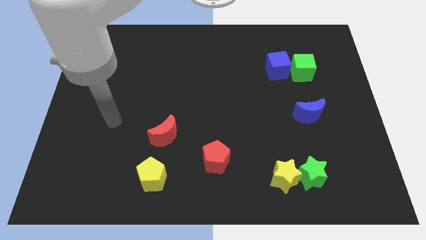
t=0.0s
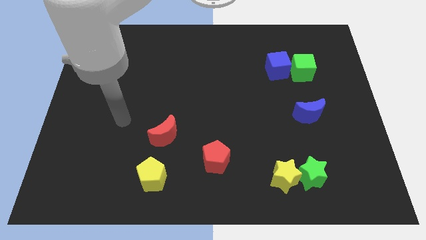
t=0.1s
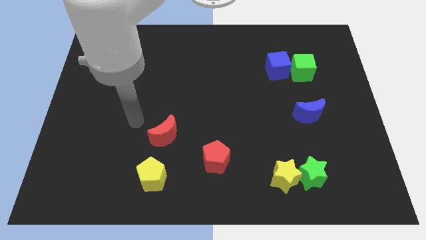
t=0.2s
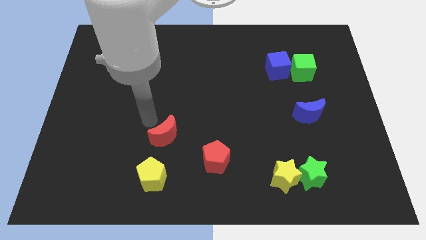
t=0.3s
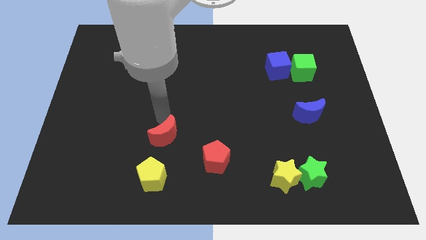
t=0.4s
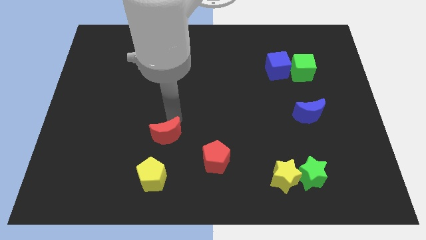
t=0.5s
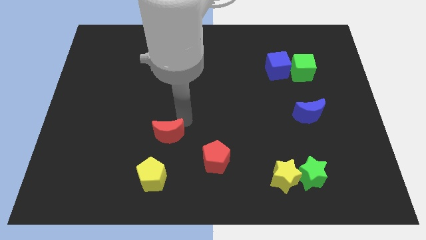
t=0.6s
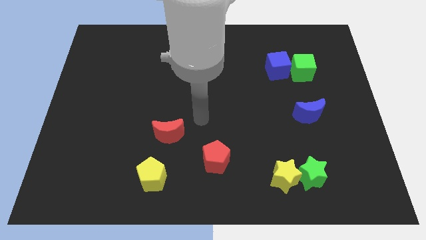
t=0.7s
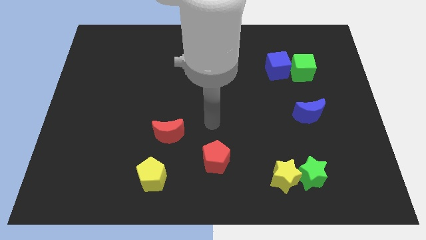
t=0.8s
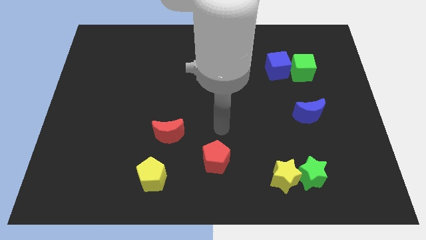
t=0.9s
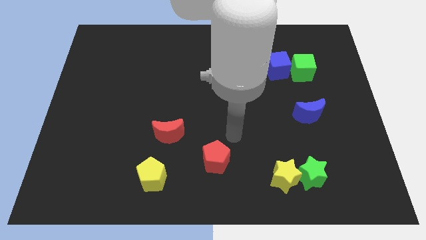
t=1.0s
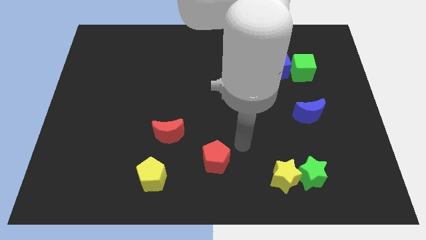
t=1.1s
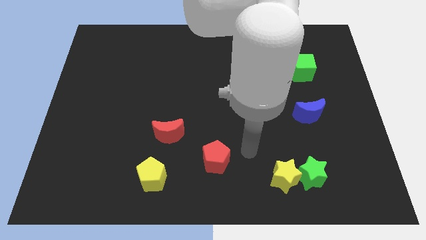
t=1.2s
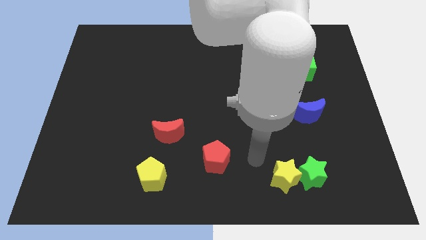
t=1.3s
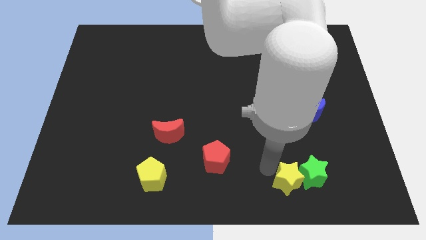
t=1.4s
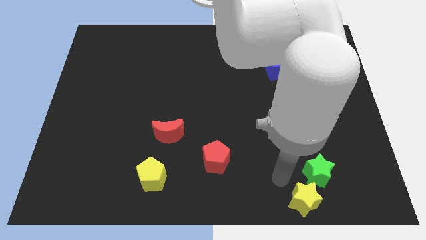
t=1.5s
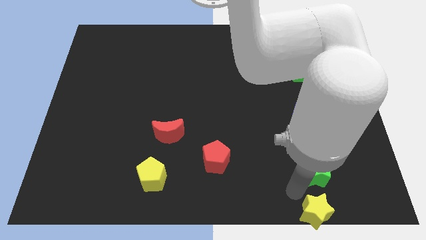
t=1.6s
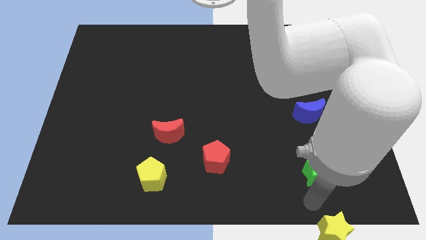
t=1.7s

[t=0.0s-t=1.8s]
pull the green star apart from the yellow star

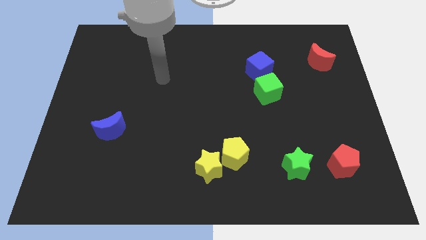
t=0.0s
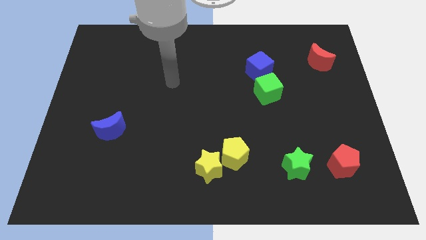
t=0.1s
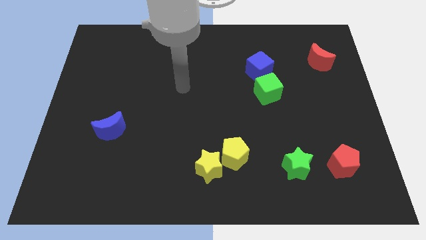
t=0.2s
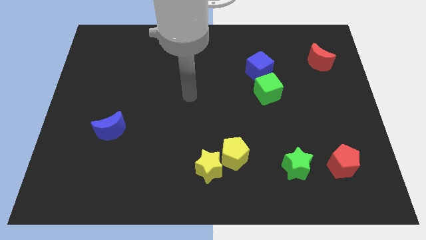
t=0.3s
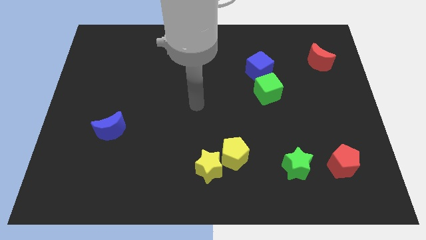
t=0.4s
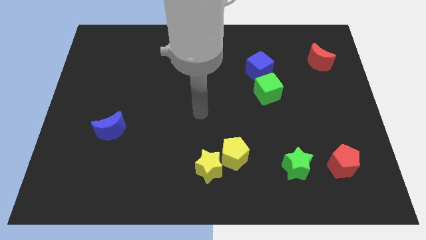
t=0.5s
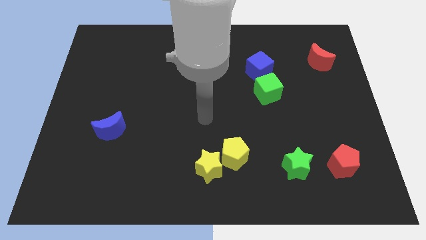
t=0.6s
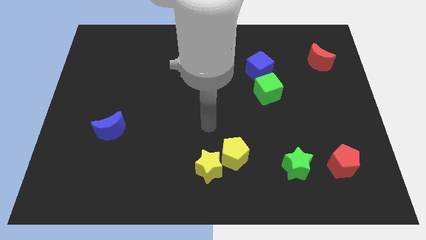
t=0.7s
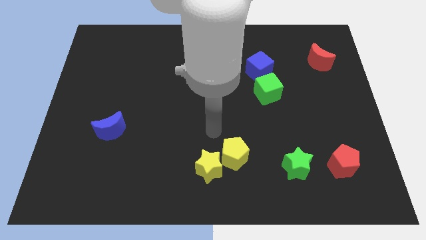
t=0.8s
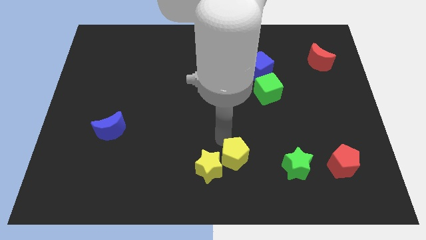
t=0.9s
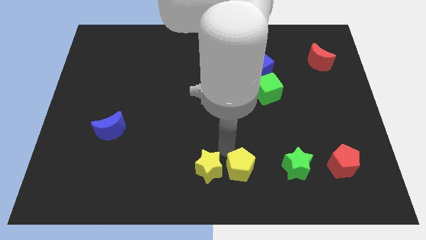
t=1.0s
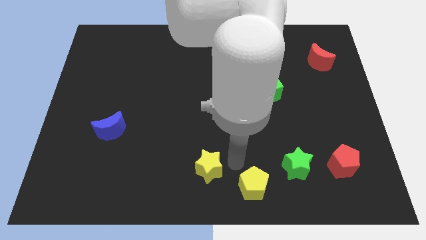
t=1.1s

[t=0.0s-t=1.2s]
separate the yellow star from the yellow pentagon

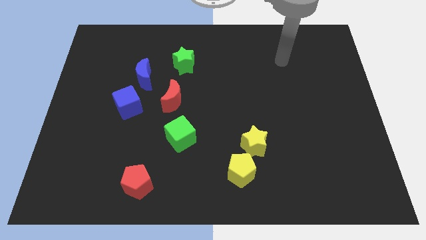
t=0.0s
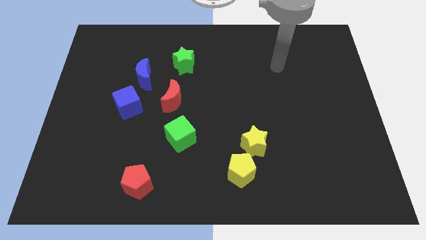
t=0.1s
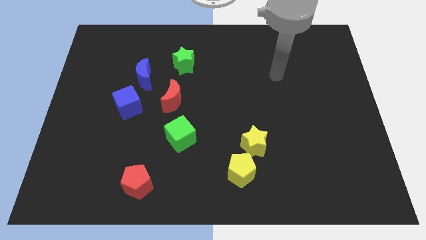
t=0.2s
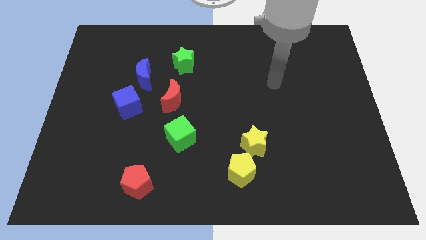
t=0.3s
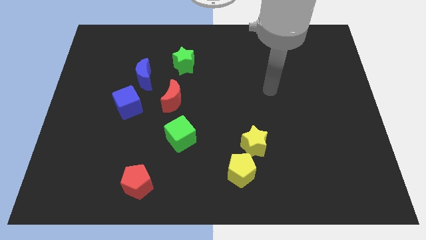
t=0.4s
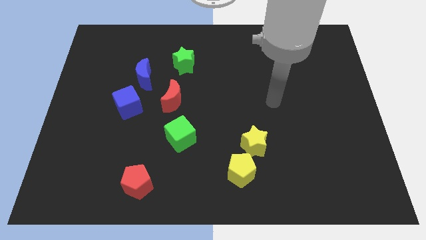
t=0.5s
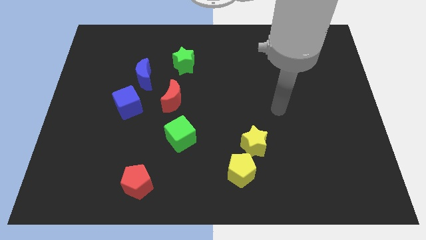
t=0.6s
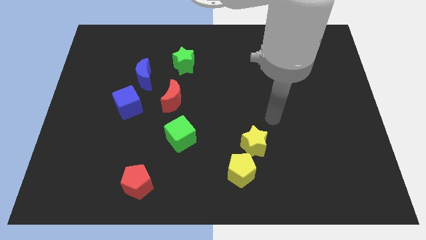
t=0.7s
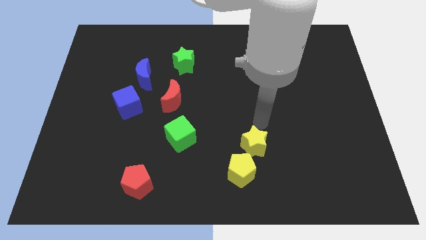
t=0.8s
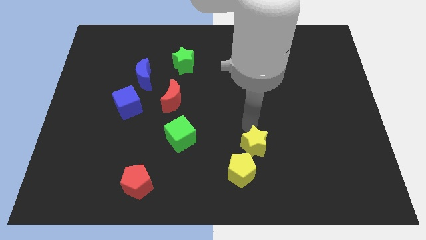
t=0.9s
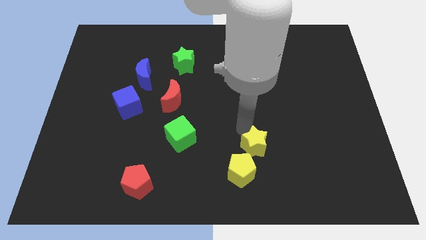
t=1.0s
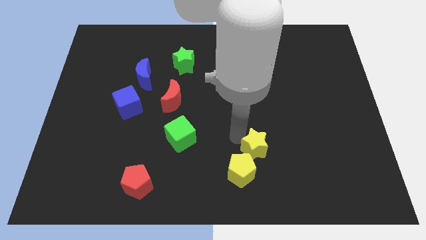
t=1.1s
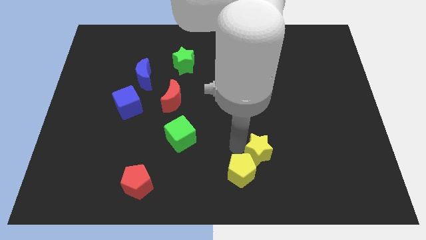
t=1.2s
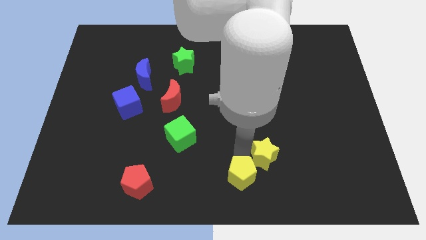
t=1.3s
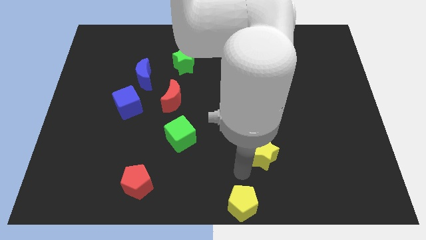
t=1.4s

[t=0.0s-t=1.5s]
move the yellow star away from the yellow pentagon

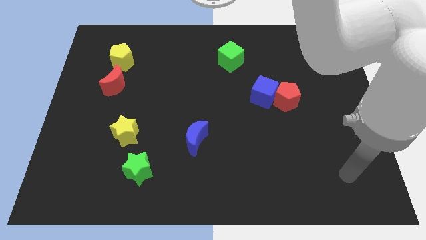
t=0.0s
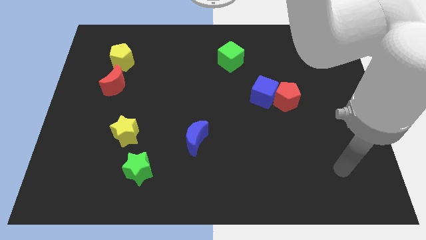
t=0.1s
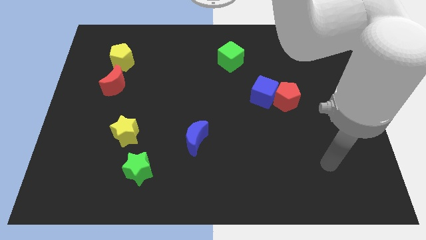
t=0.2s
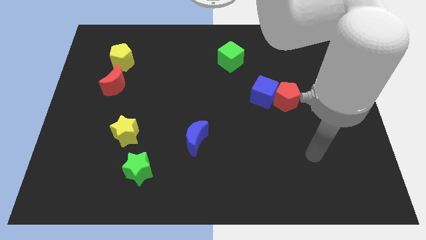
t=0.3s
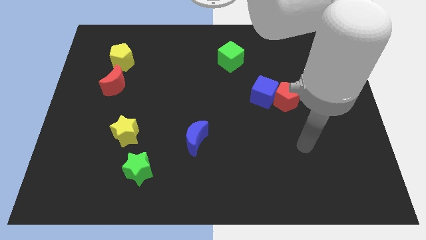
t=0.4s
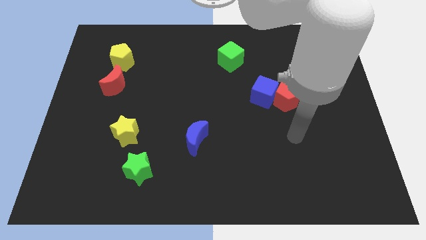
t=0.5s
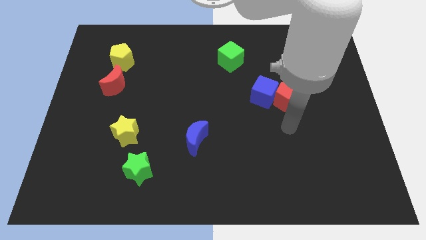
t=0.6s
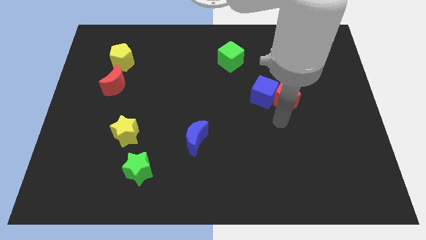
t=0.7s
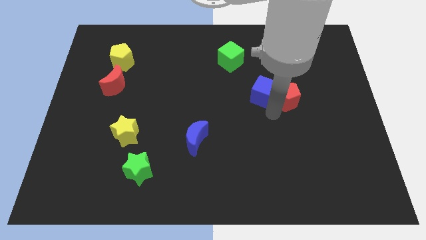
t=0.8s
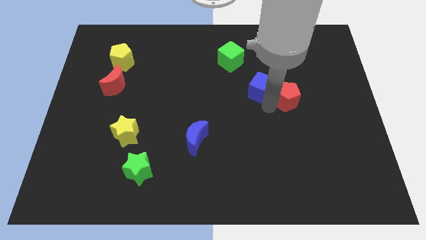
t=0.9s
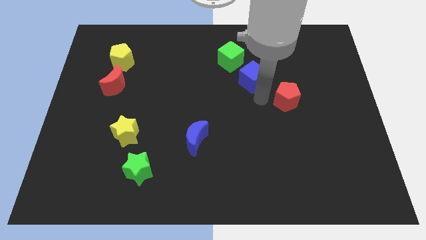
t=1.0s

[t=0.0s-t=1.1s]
move the red pentagon away from the blue cube

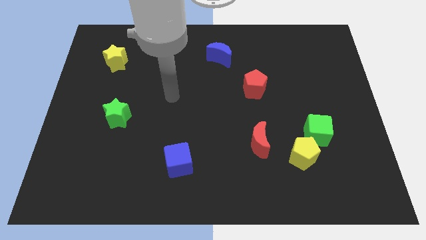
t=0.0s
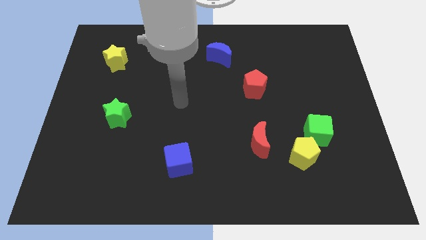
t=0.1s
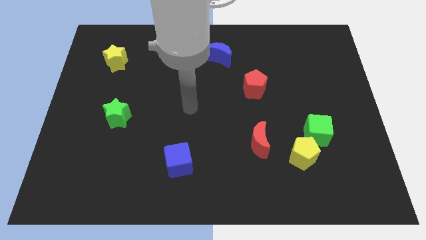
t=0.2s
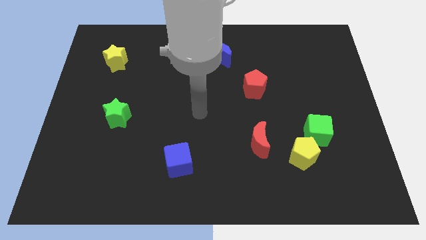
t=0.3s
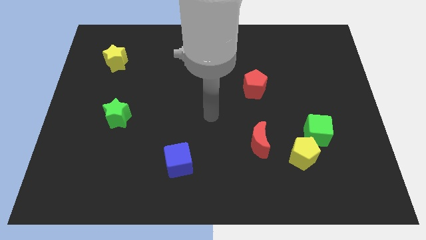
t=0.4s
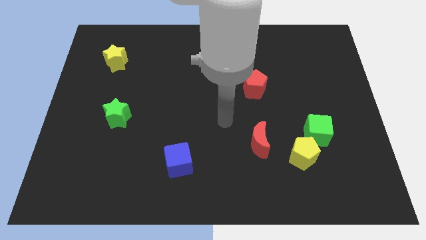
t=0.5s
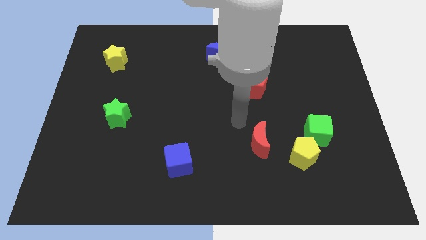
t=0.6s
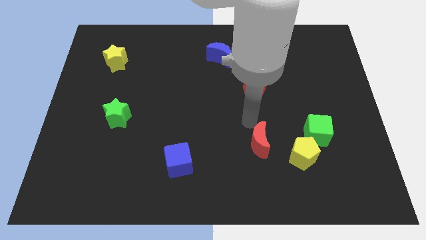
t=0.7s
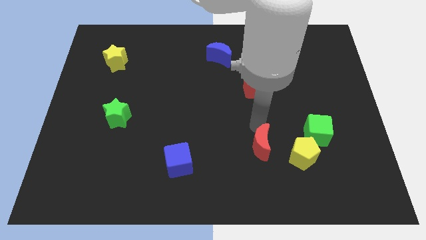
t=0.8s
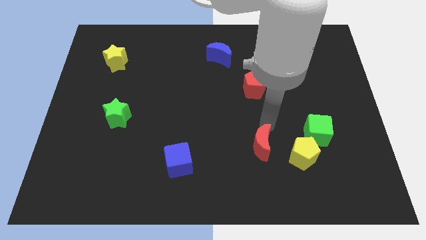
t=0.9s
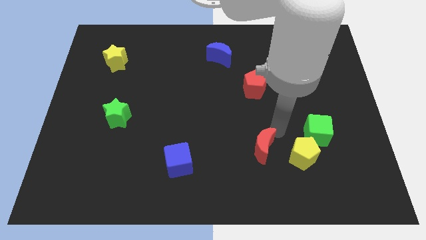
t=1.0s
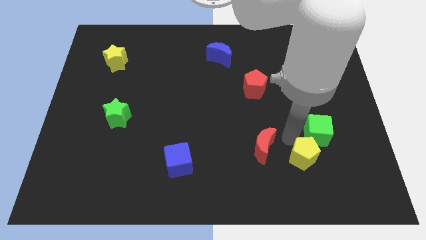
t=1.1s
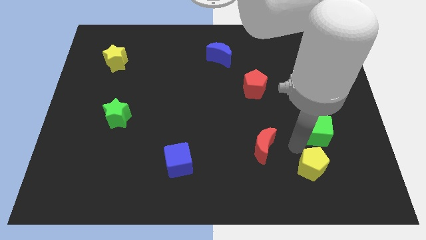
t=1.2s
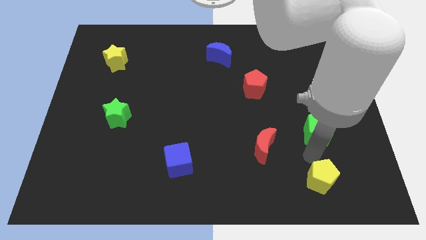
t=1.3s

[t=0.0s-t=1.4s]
separate the green cube from the yellow pentagon

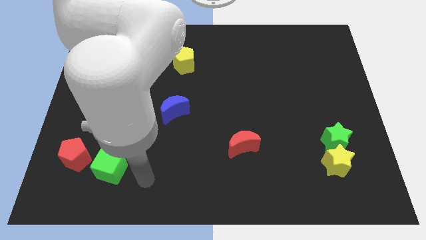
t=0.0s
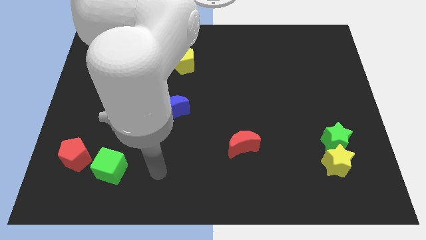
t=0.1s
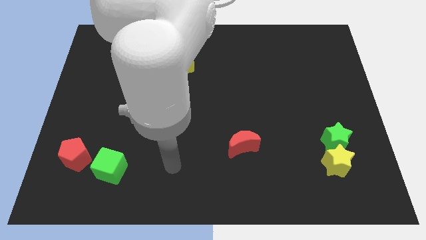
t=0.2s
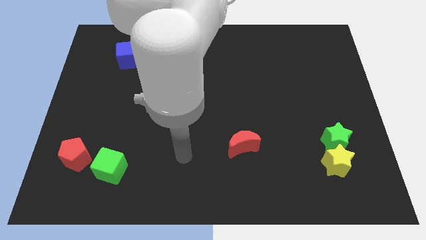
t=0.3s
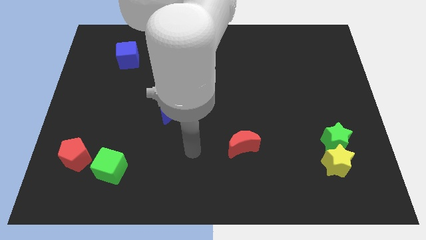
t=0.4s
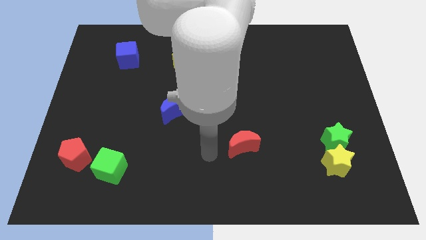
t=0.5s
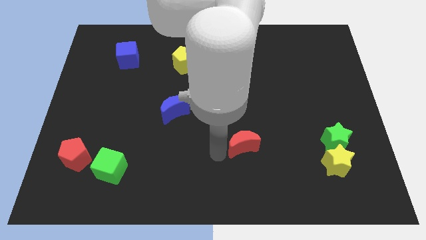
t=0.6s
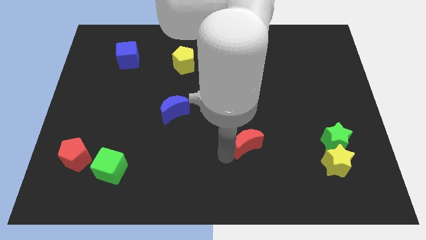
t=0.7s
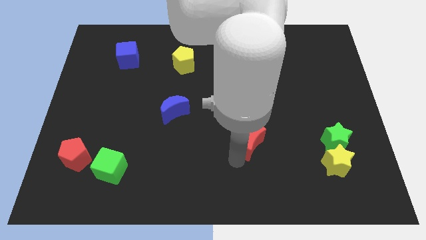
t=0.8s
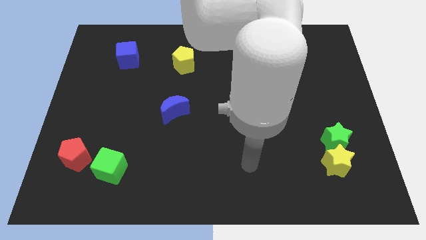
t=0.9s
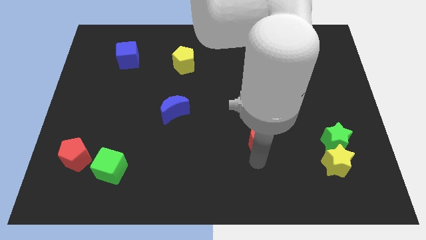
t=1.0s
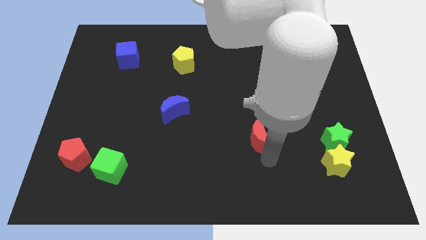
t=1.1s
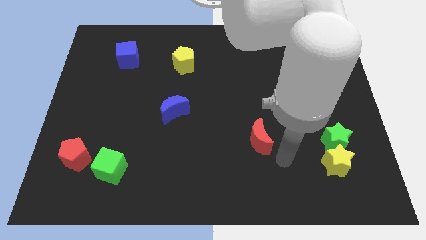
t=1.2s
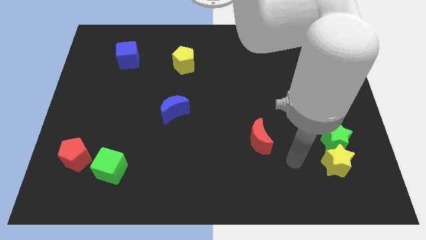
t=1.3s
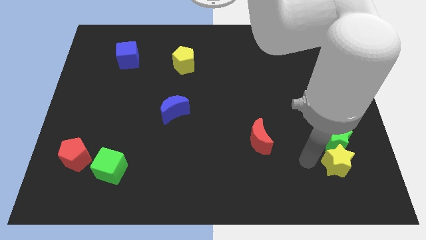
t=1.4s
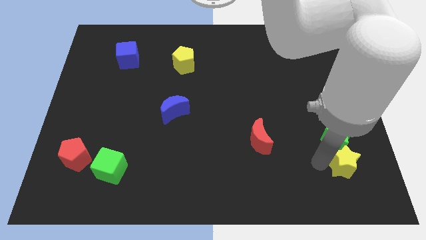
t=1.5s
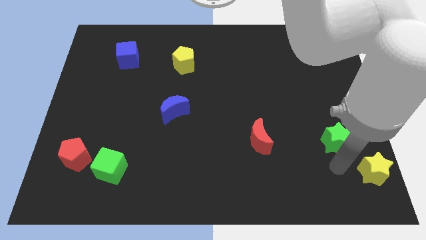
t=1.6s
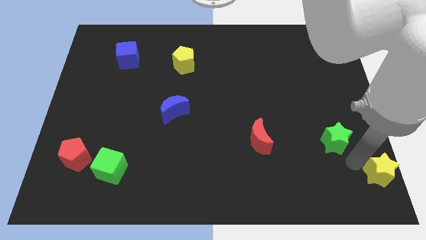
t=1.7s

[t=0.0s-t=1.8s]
move the green star away from the yellow star

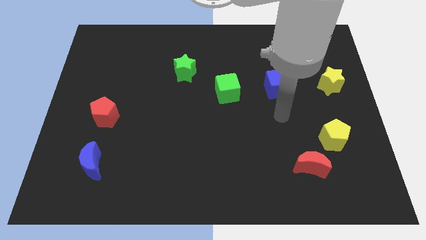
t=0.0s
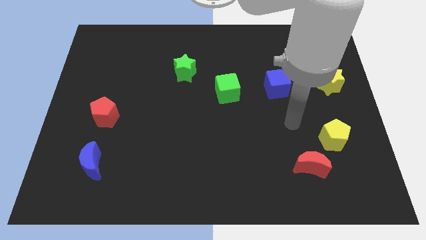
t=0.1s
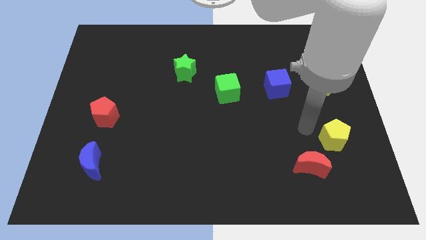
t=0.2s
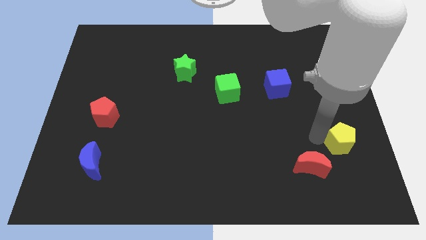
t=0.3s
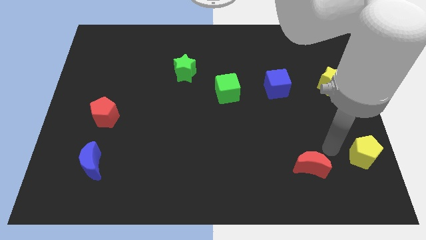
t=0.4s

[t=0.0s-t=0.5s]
move the red moon away from the yellow pentagon

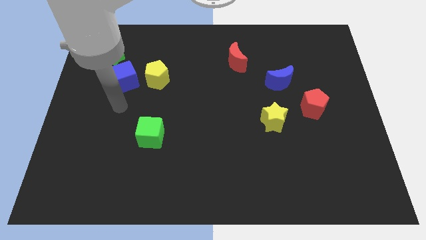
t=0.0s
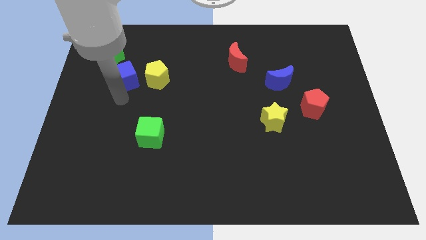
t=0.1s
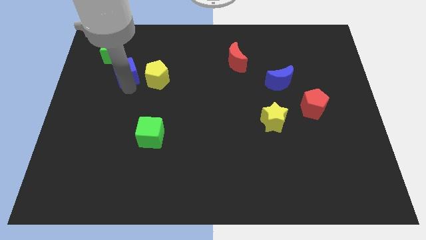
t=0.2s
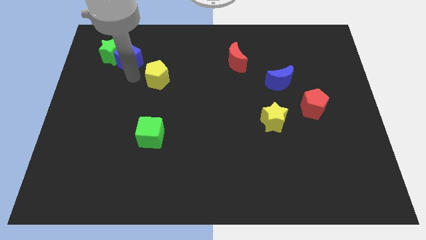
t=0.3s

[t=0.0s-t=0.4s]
move the yellow pentagon away from the blue cube
